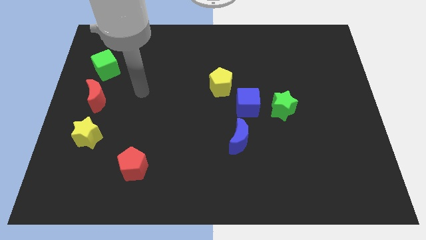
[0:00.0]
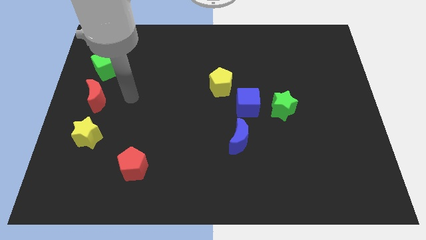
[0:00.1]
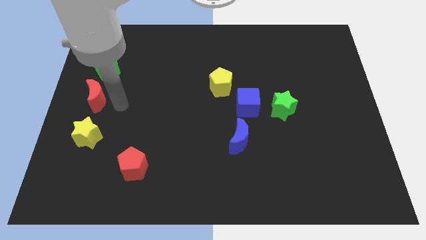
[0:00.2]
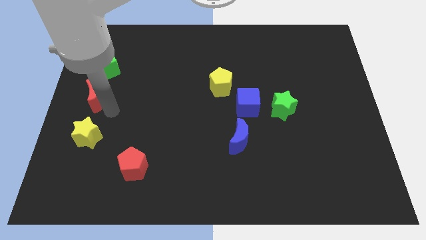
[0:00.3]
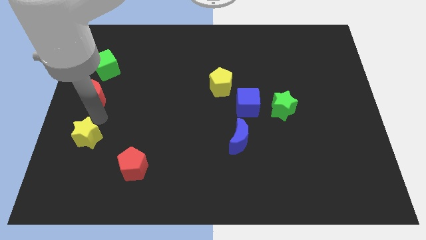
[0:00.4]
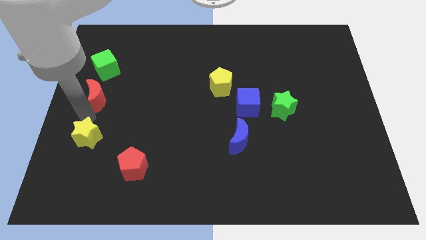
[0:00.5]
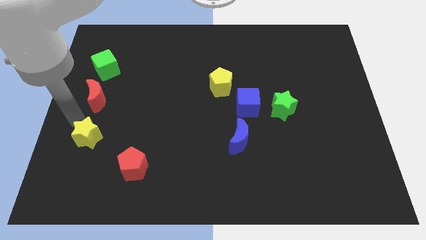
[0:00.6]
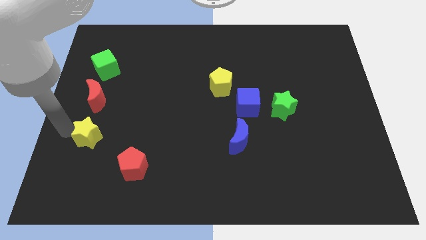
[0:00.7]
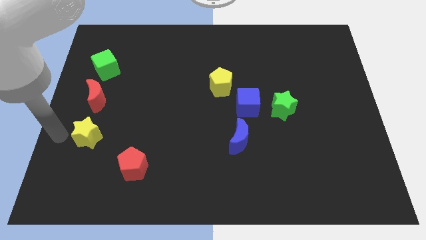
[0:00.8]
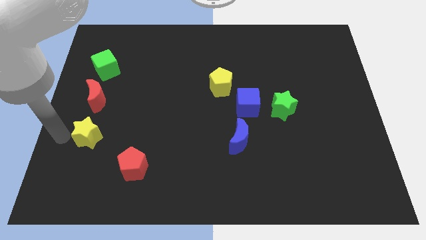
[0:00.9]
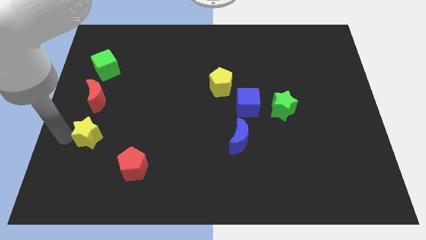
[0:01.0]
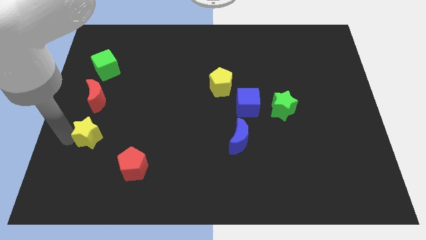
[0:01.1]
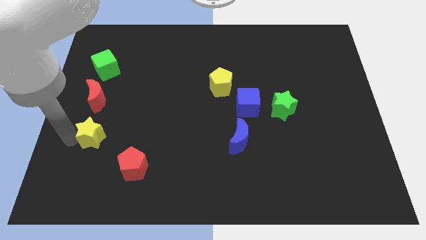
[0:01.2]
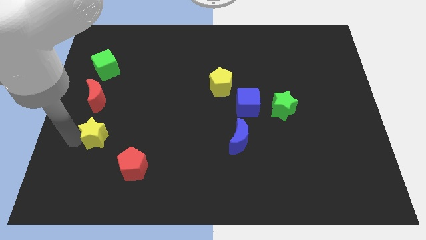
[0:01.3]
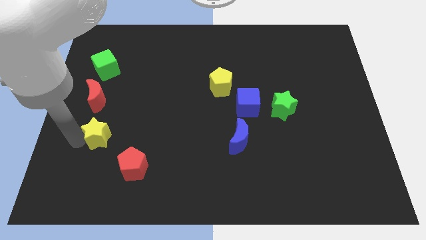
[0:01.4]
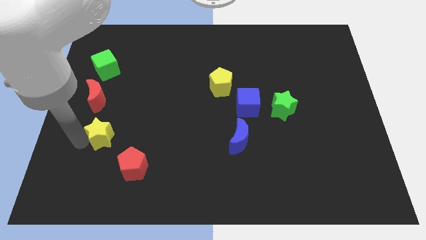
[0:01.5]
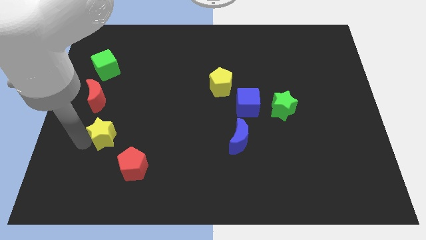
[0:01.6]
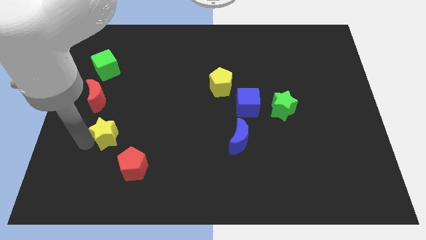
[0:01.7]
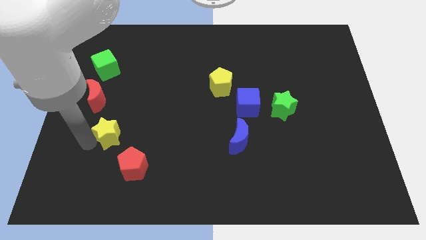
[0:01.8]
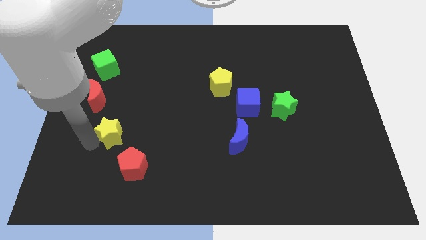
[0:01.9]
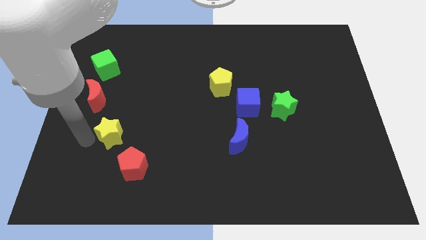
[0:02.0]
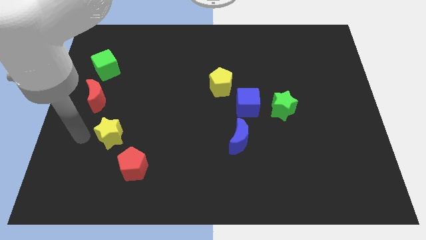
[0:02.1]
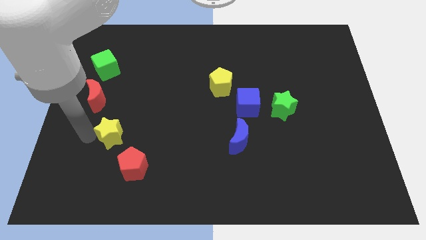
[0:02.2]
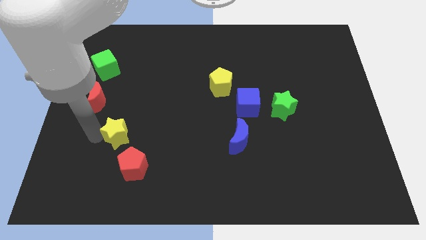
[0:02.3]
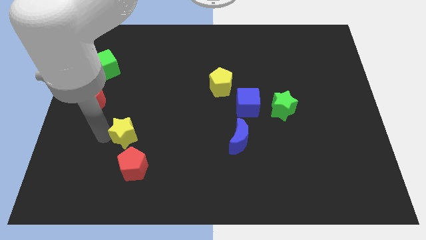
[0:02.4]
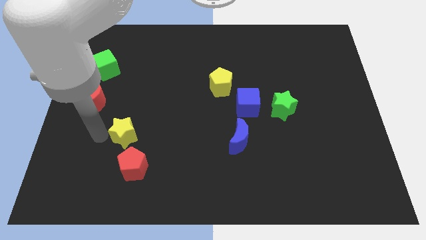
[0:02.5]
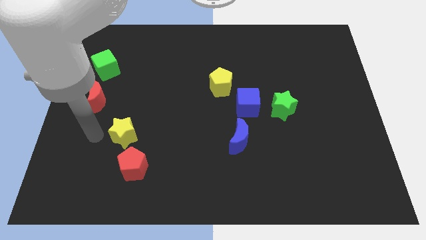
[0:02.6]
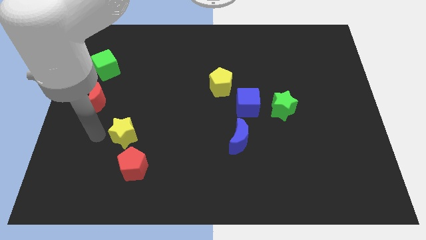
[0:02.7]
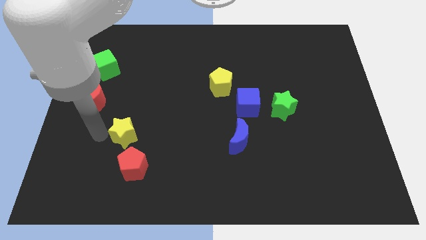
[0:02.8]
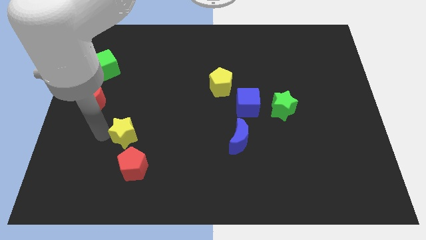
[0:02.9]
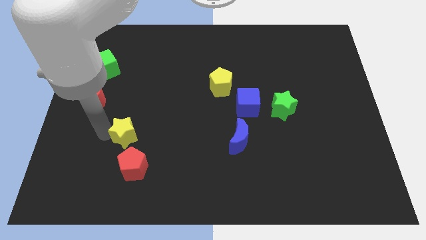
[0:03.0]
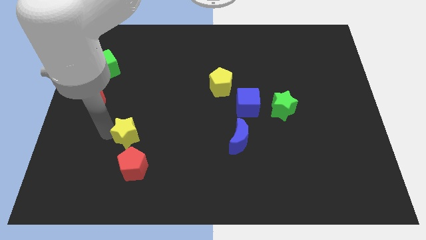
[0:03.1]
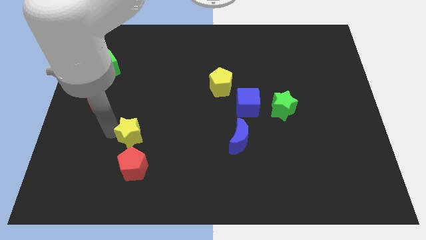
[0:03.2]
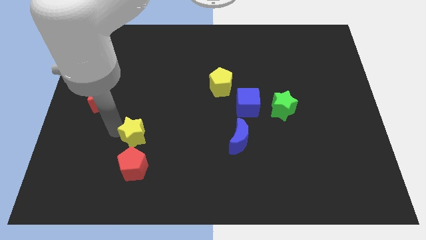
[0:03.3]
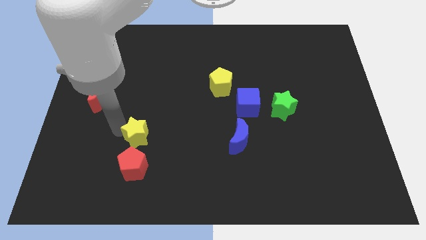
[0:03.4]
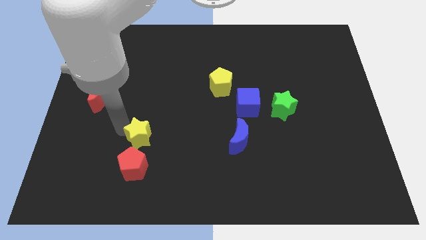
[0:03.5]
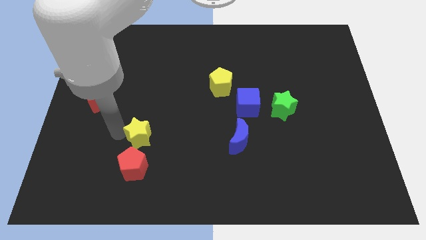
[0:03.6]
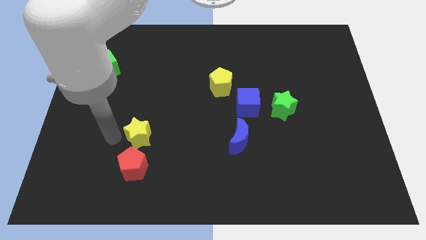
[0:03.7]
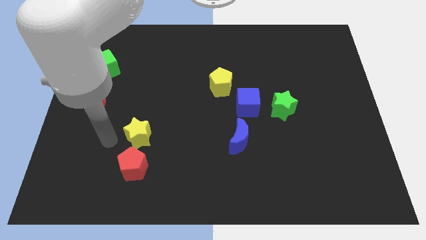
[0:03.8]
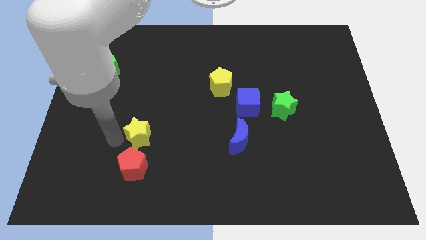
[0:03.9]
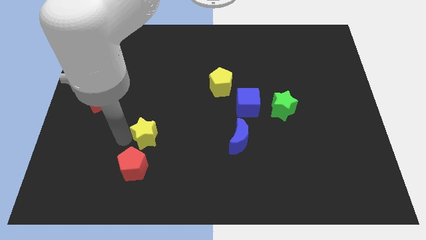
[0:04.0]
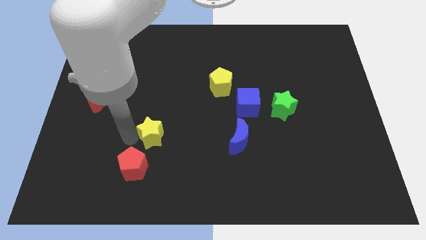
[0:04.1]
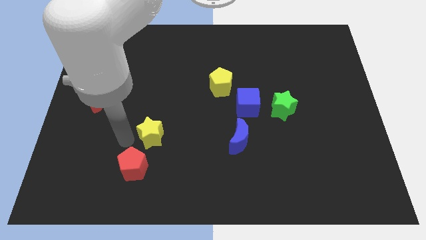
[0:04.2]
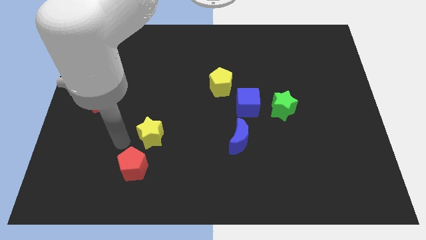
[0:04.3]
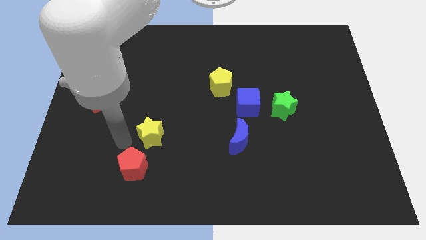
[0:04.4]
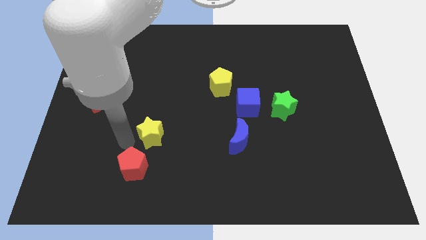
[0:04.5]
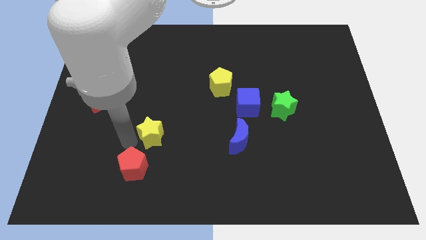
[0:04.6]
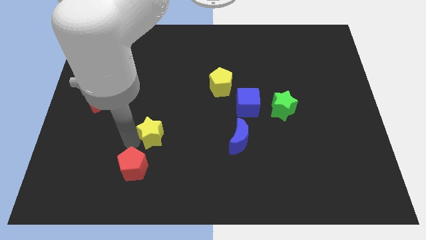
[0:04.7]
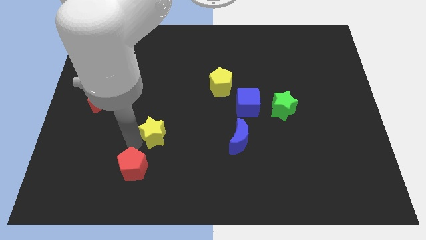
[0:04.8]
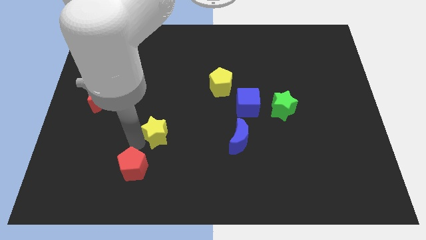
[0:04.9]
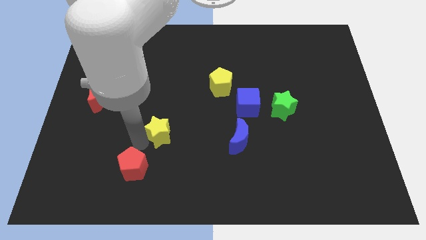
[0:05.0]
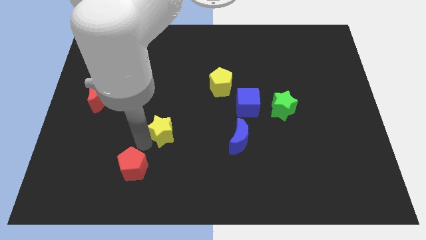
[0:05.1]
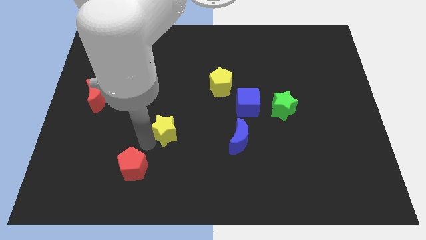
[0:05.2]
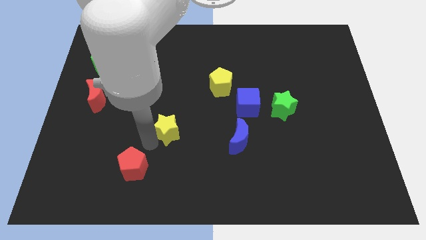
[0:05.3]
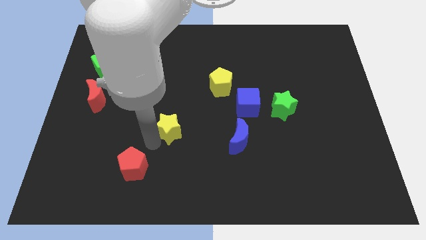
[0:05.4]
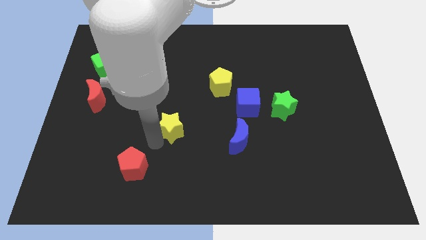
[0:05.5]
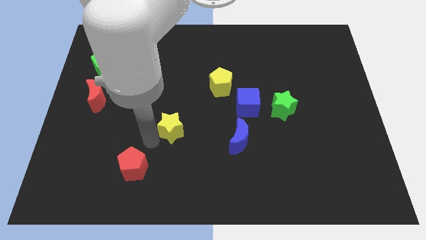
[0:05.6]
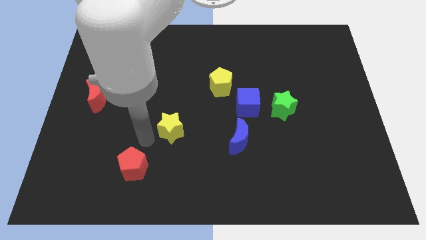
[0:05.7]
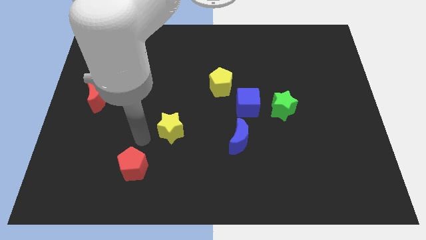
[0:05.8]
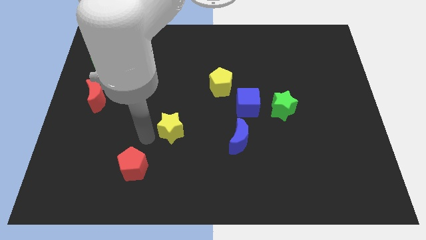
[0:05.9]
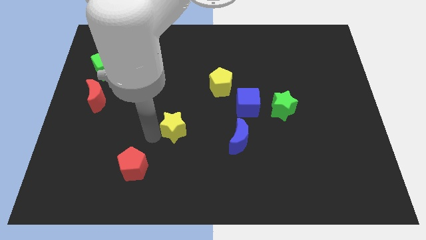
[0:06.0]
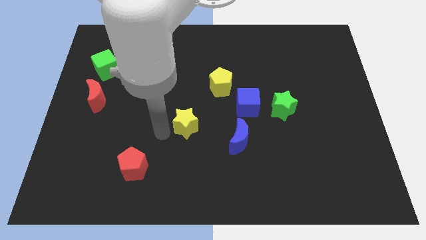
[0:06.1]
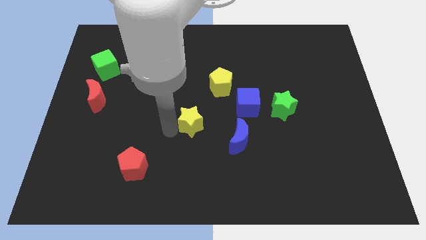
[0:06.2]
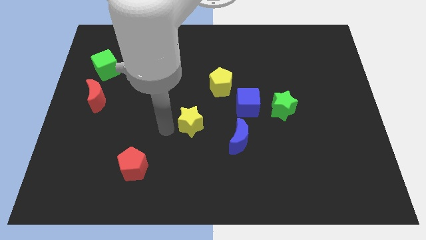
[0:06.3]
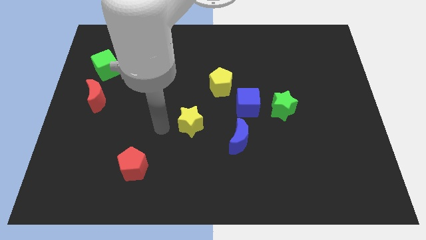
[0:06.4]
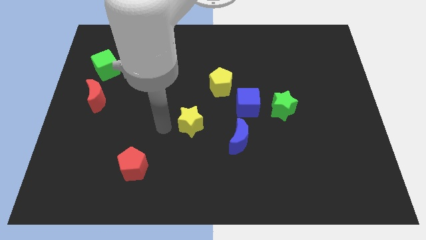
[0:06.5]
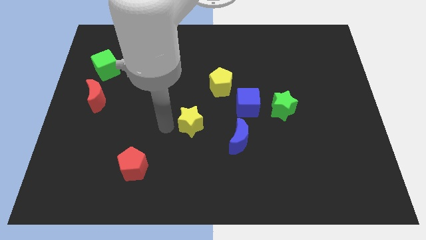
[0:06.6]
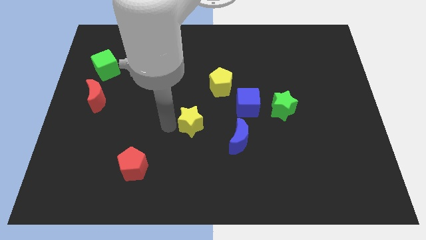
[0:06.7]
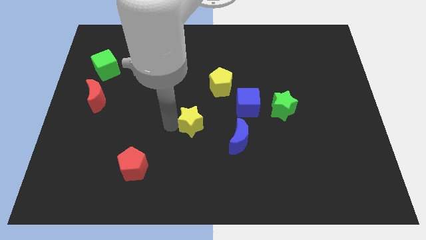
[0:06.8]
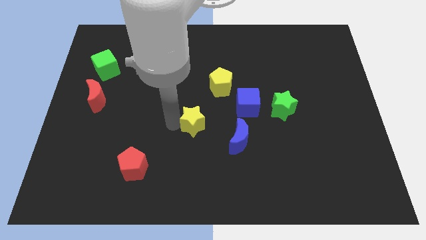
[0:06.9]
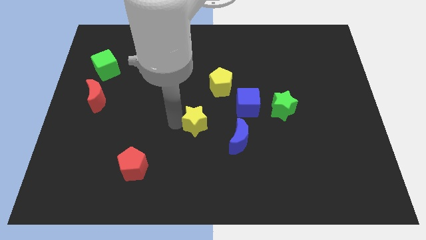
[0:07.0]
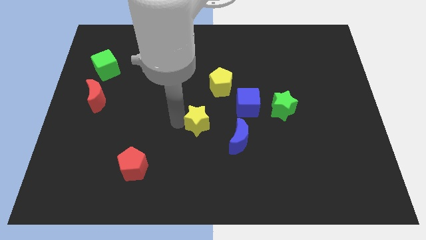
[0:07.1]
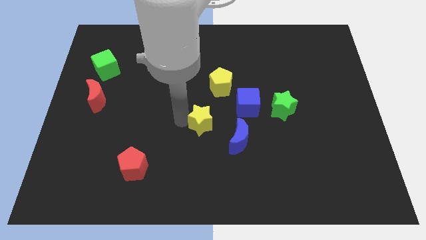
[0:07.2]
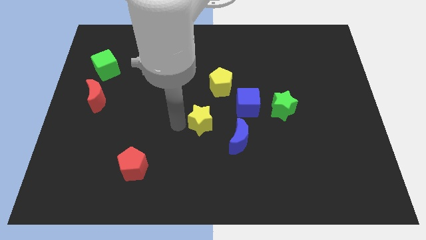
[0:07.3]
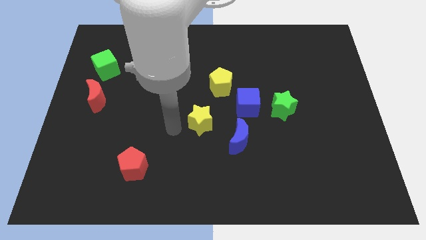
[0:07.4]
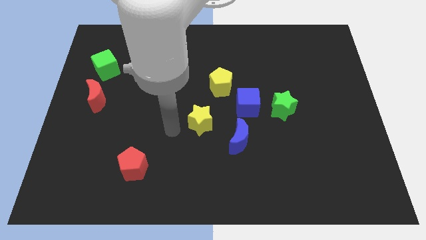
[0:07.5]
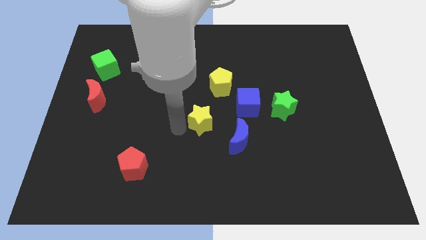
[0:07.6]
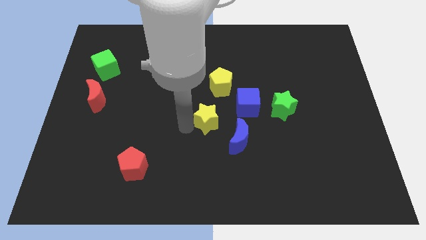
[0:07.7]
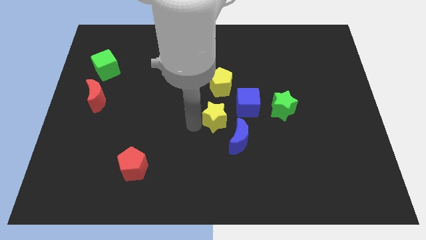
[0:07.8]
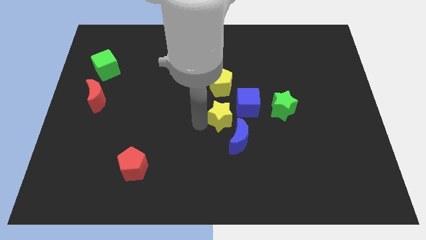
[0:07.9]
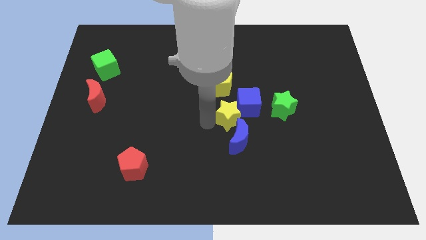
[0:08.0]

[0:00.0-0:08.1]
move the yellow star next to the blue cube

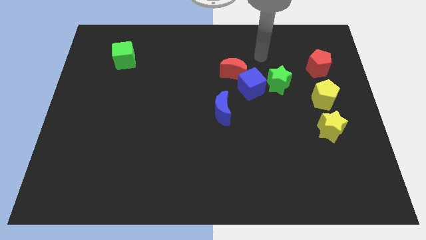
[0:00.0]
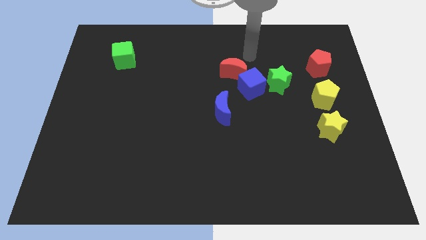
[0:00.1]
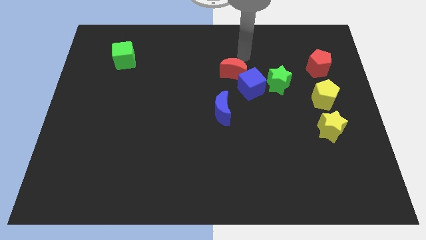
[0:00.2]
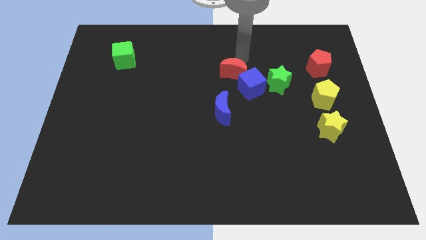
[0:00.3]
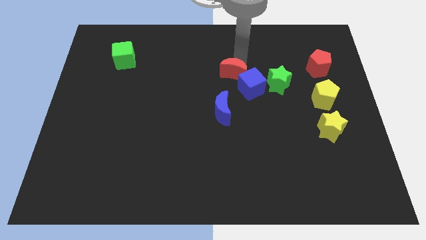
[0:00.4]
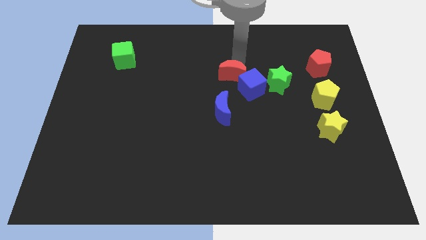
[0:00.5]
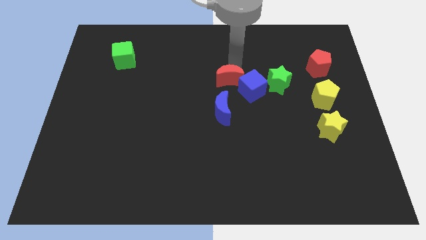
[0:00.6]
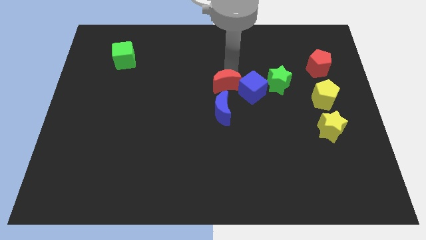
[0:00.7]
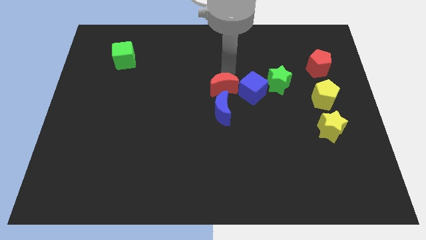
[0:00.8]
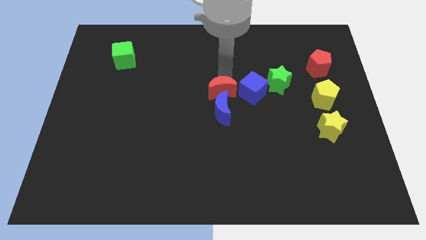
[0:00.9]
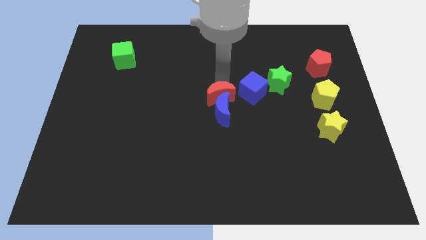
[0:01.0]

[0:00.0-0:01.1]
move the red moon to the blue moon
